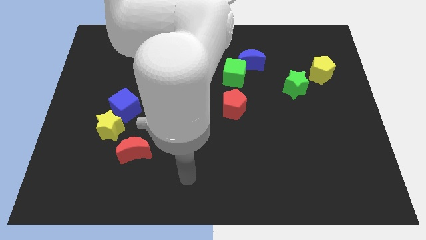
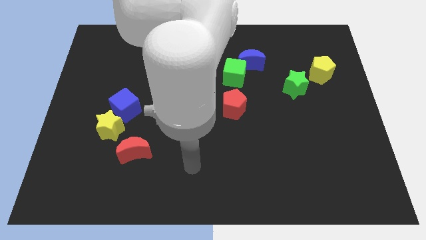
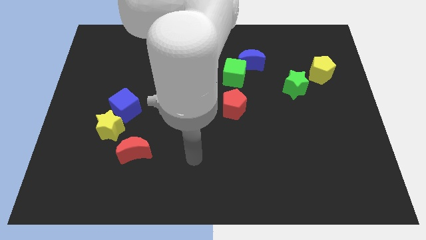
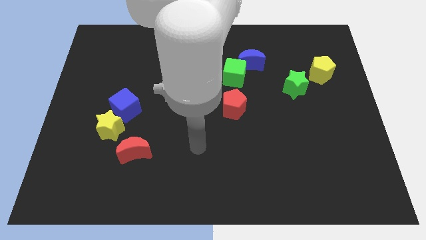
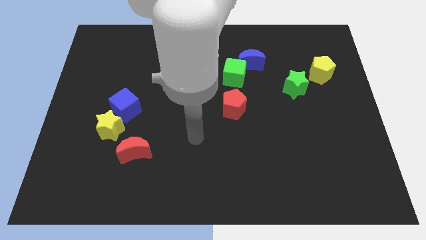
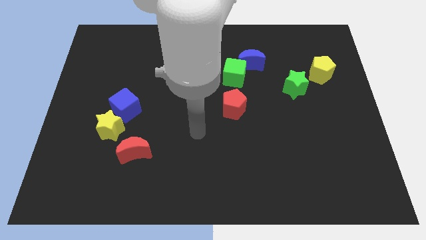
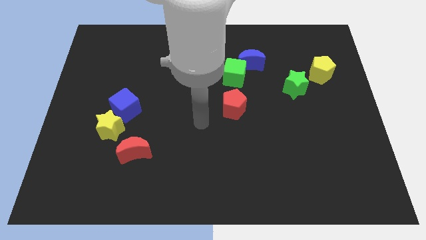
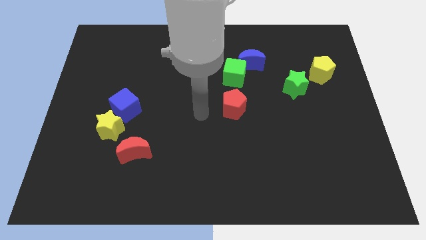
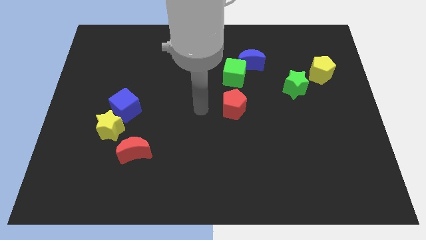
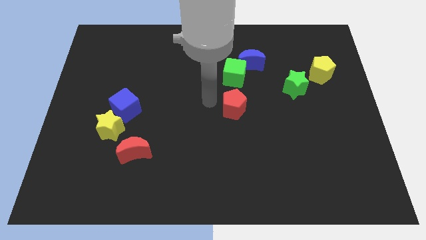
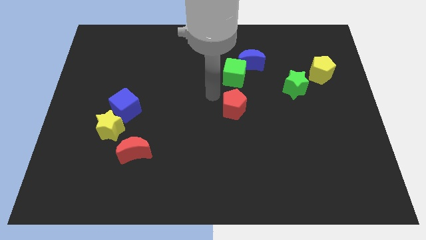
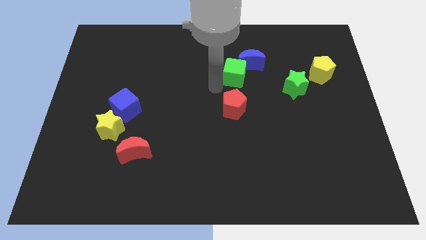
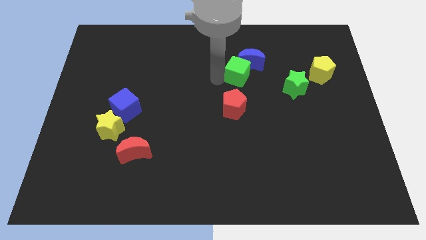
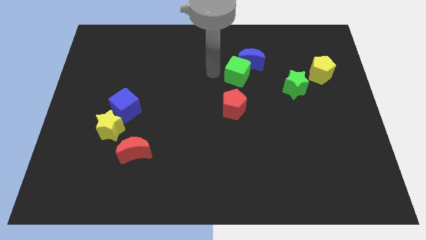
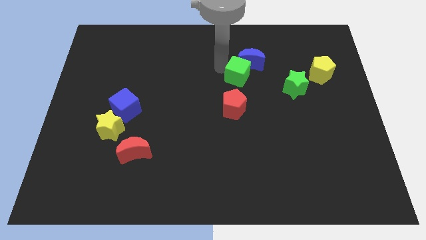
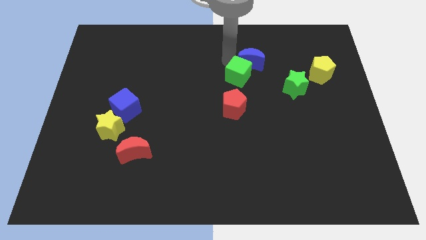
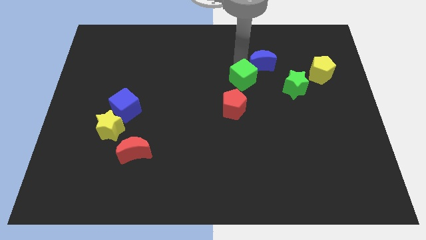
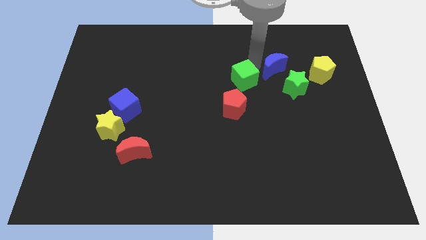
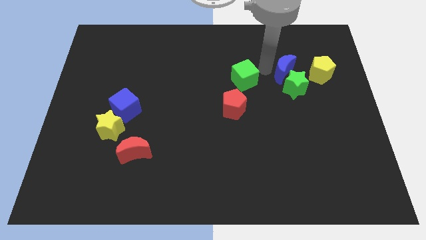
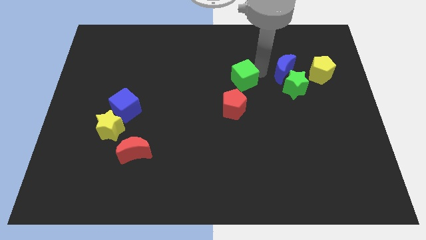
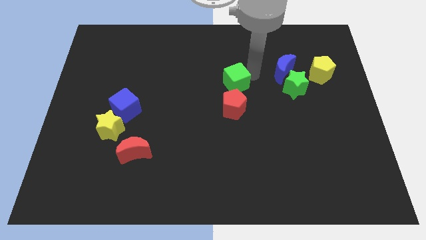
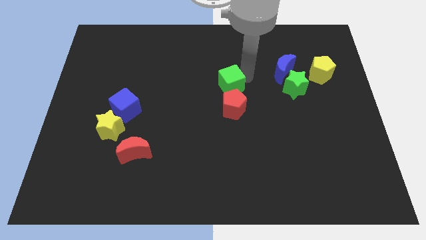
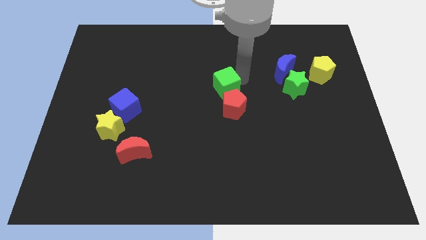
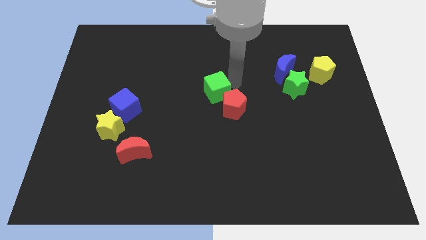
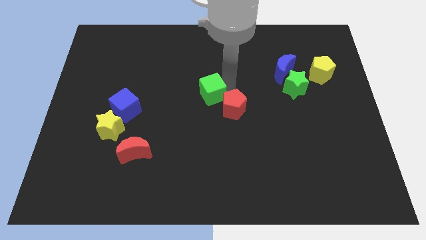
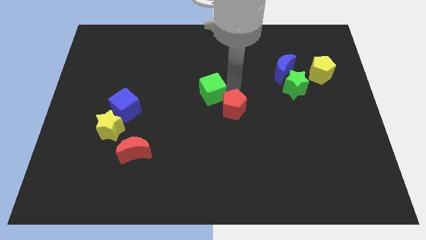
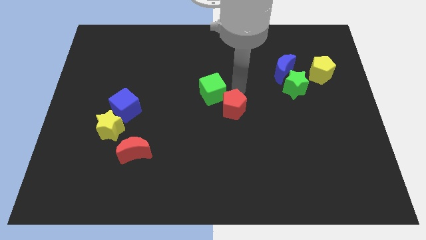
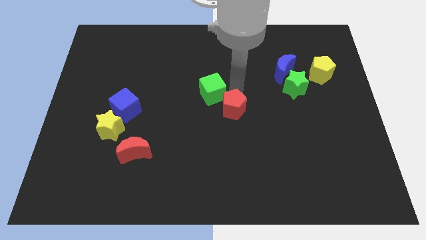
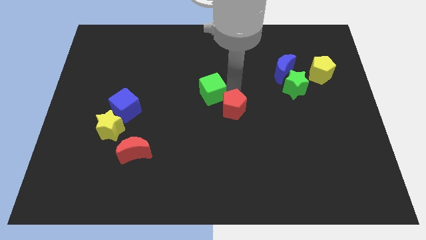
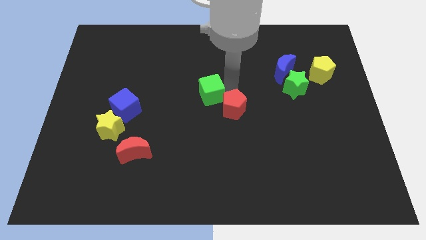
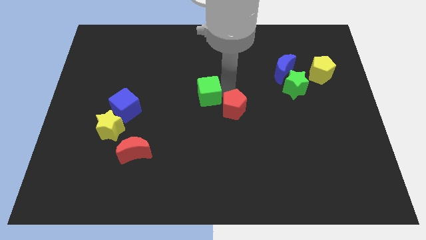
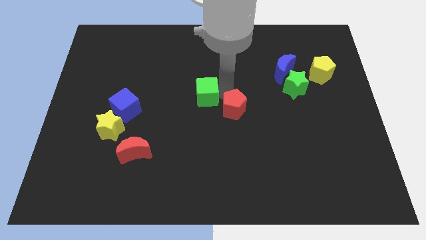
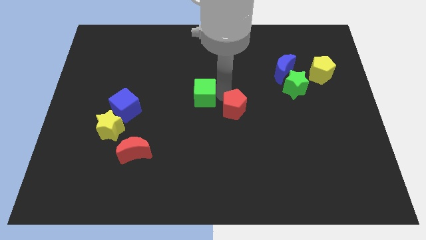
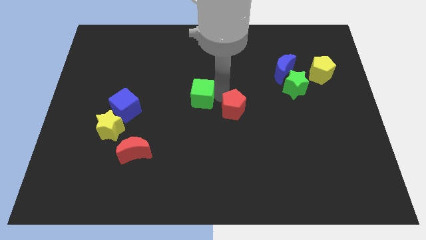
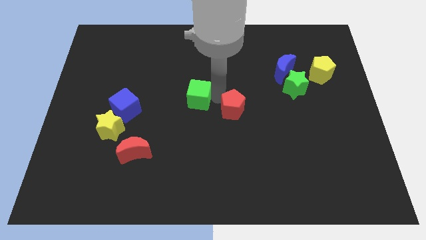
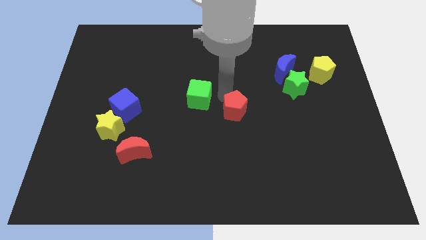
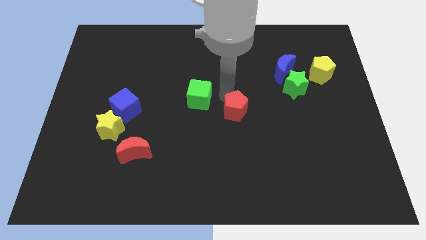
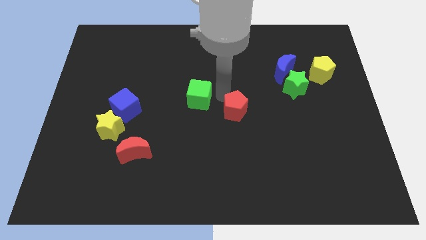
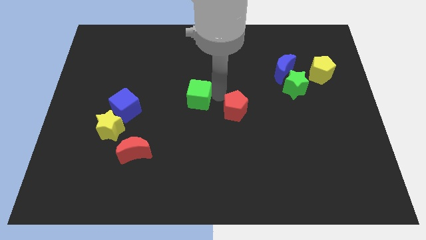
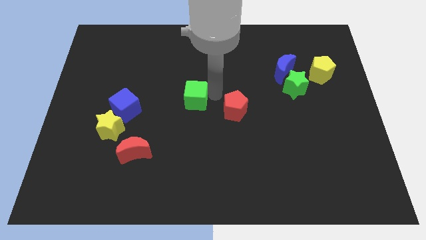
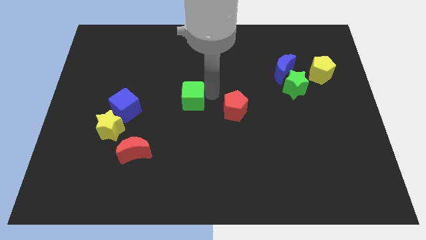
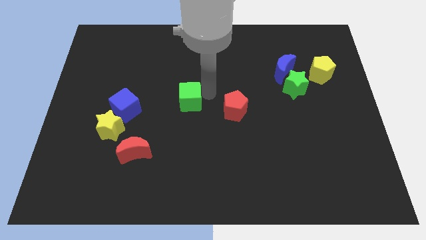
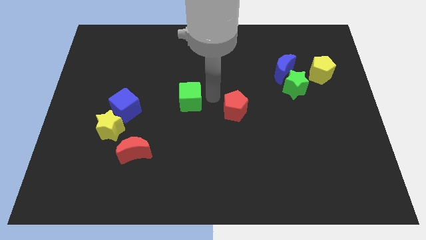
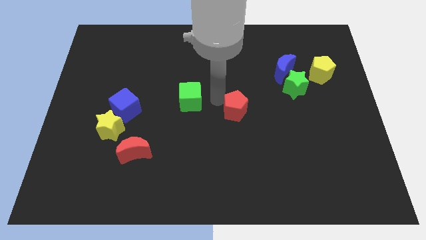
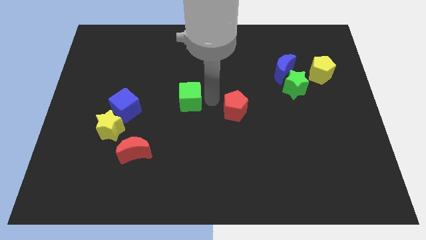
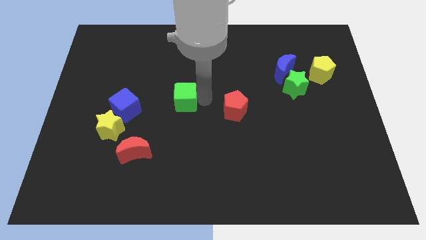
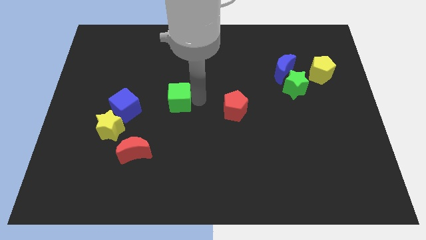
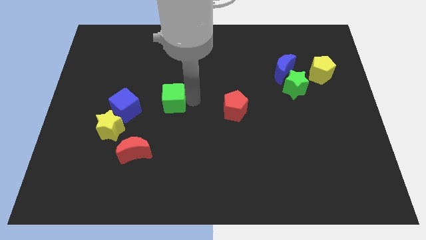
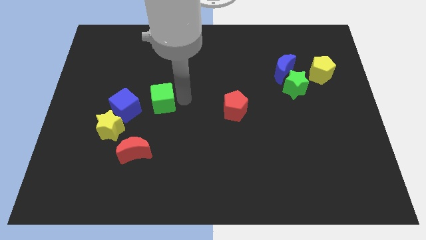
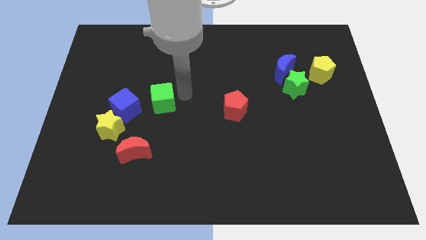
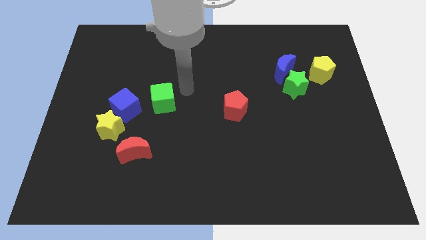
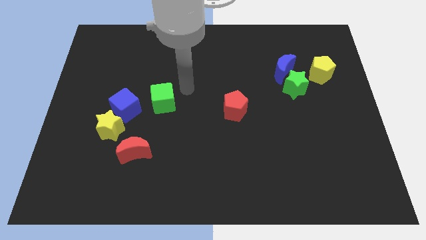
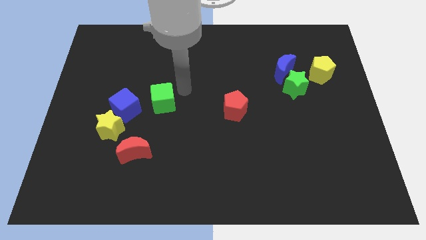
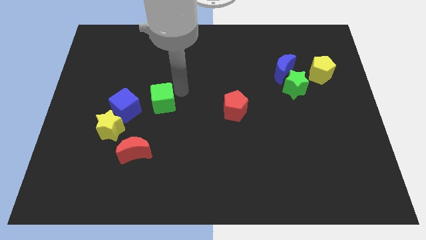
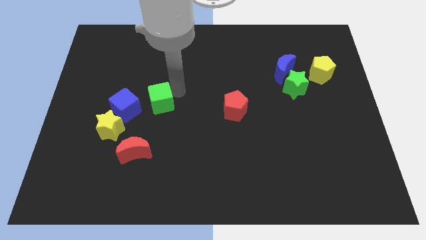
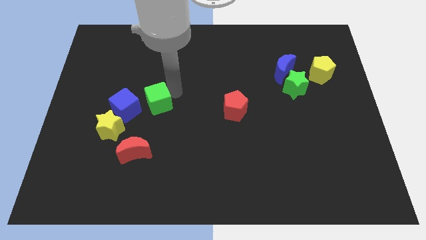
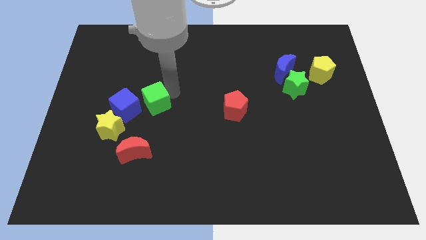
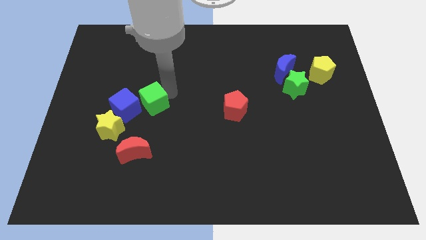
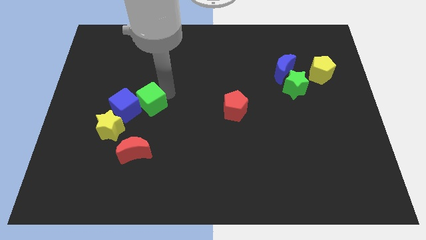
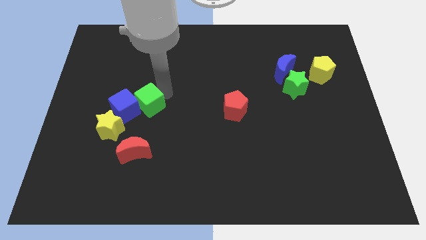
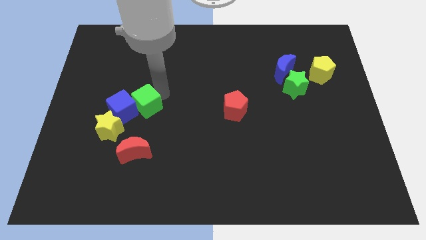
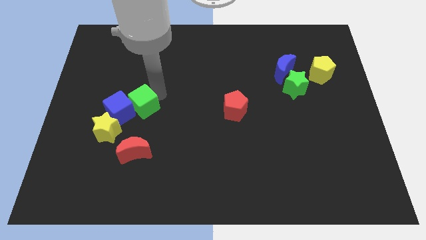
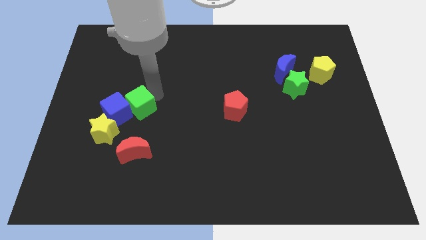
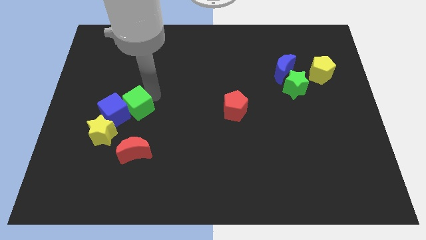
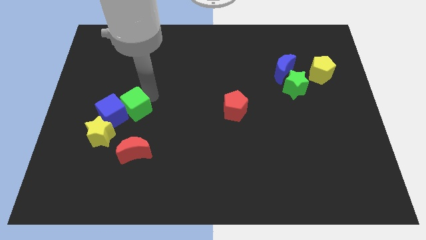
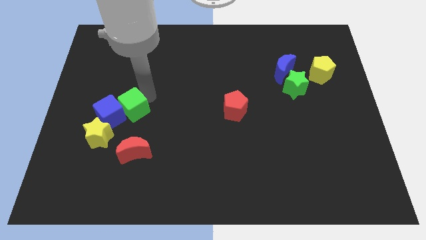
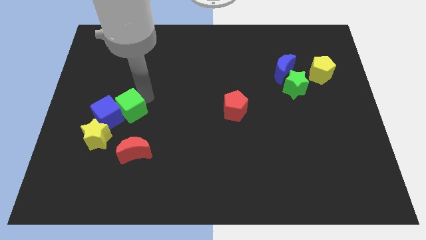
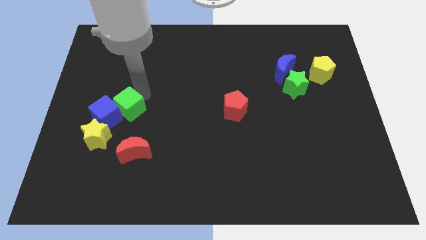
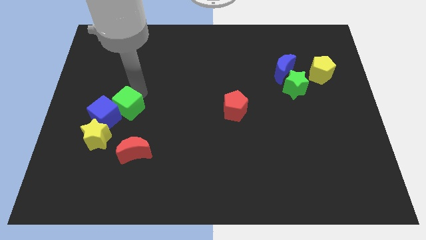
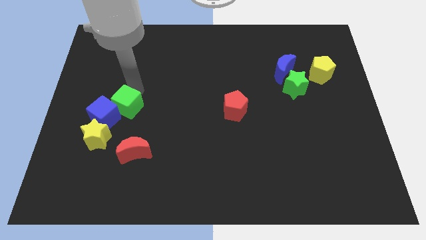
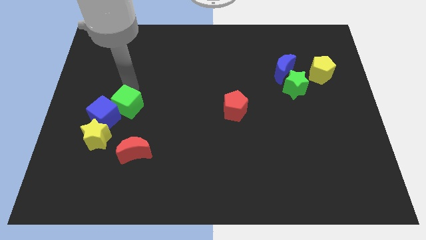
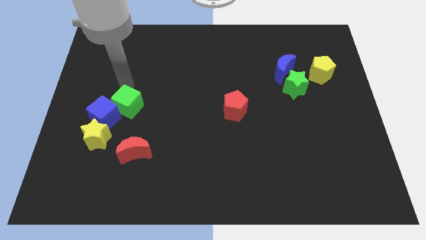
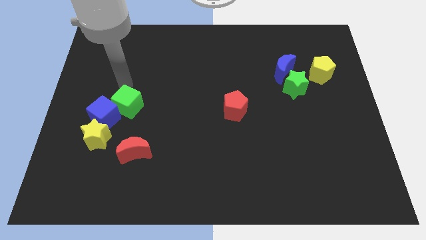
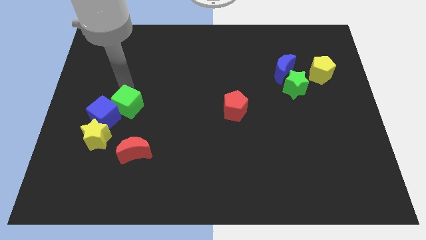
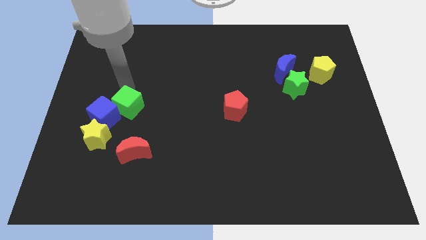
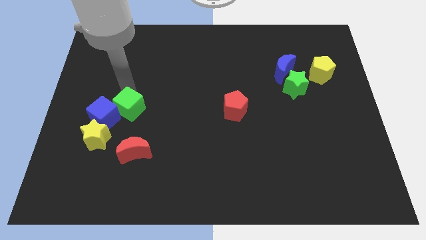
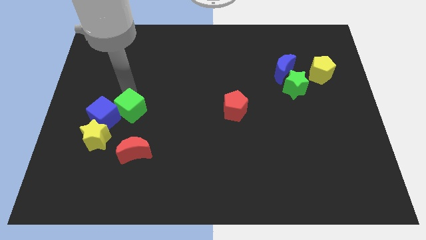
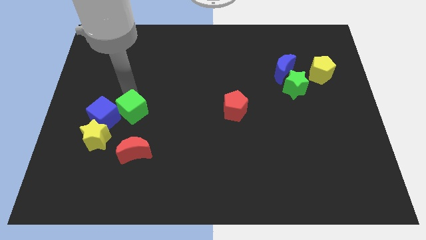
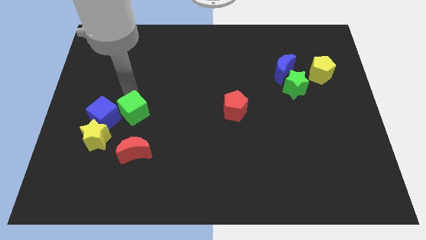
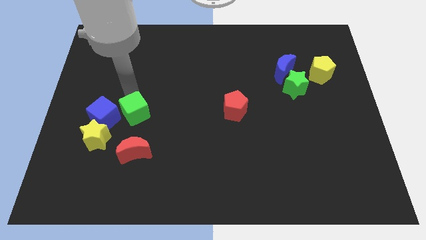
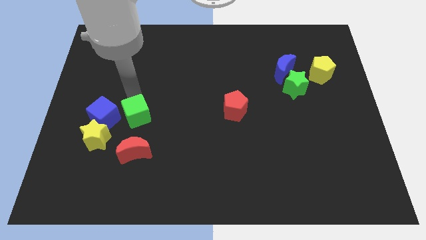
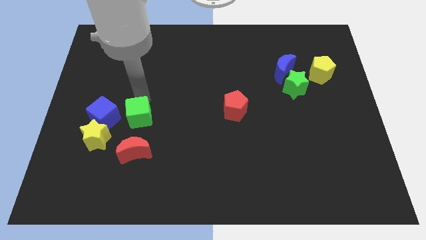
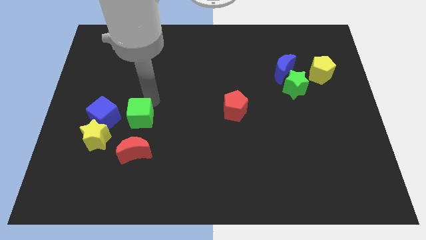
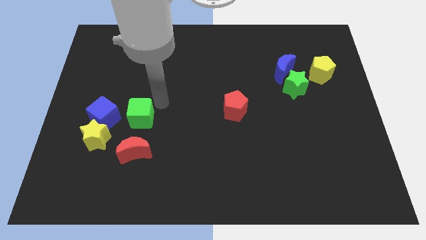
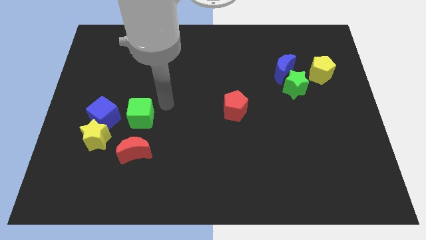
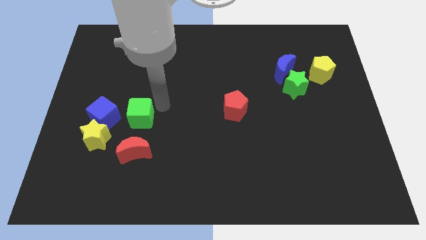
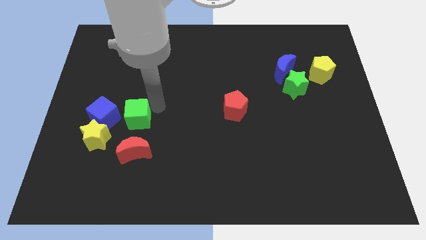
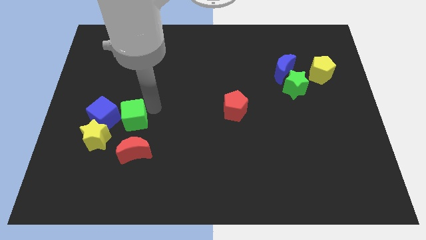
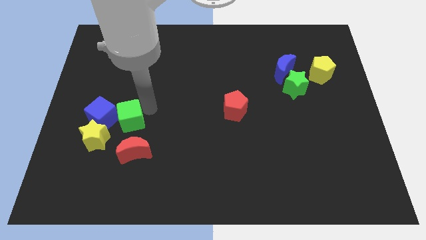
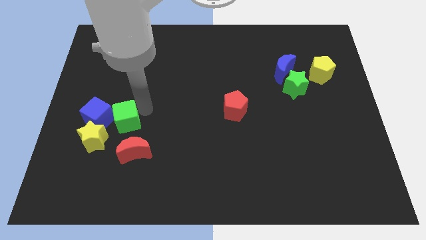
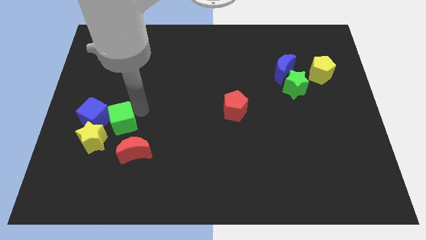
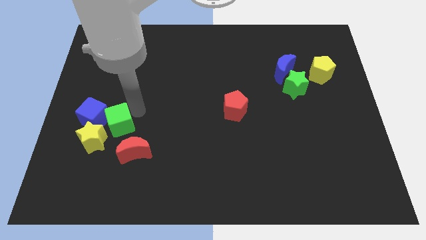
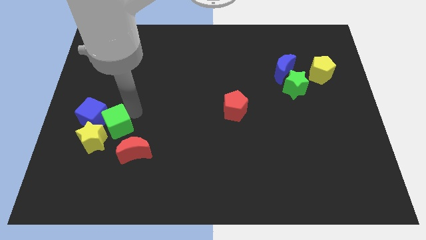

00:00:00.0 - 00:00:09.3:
push the green cube to the yellow star
